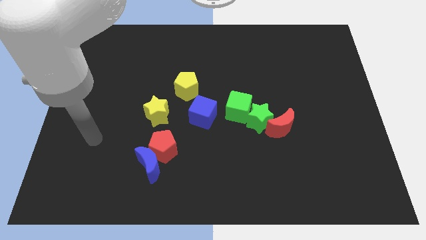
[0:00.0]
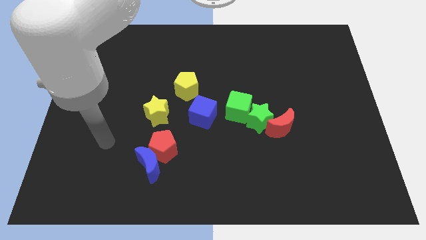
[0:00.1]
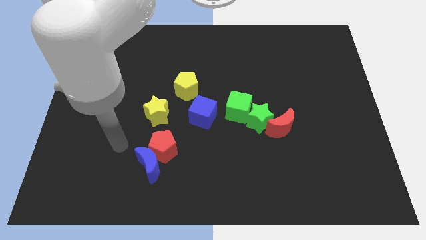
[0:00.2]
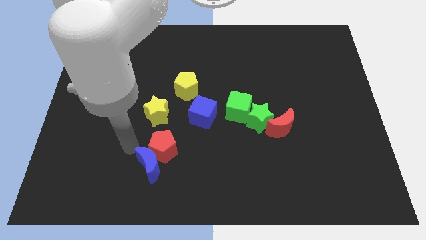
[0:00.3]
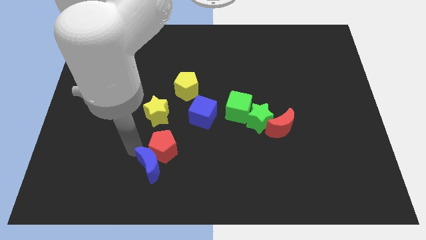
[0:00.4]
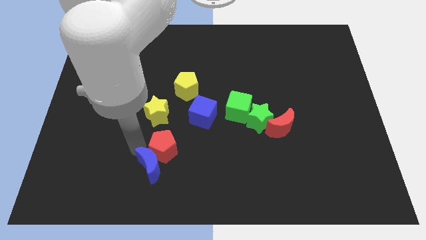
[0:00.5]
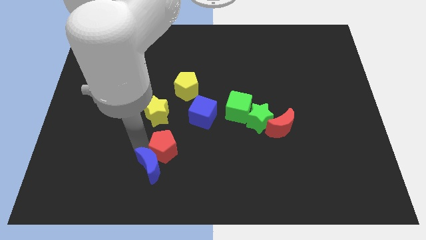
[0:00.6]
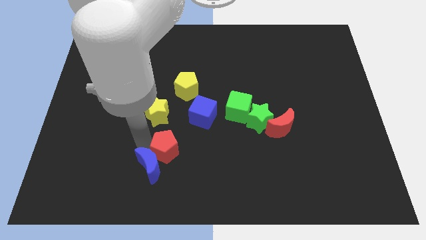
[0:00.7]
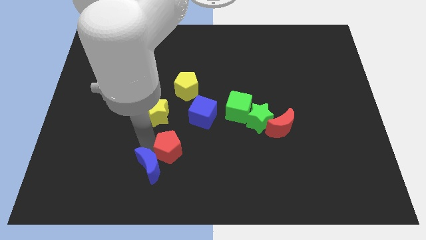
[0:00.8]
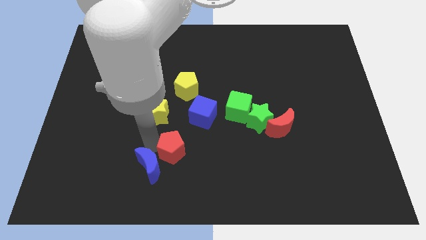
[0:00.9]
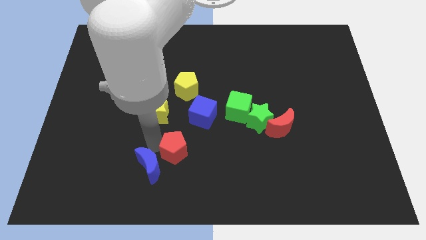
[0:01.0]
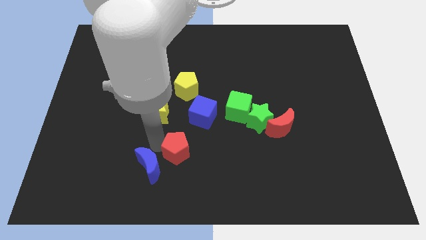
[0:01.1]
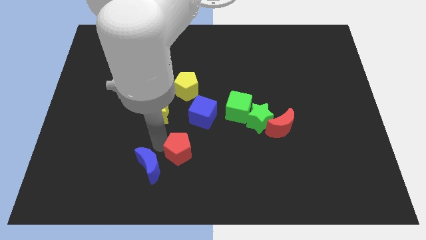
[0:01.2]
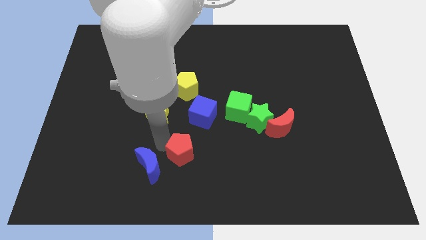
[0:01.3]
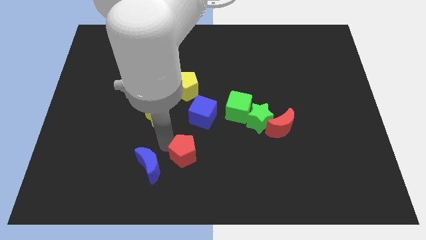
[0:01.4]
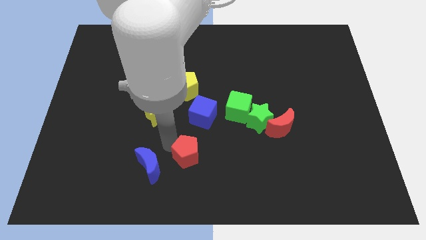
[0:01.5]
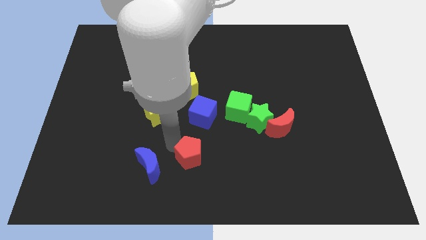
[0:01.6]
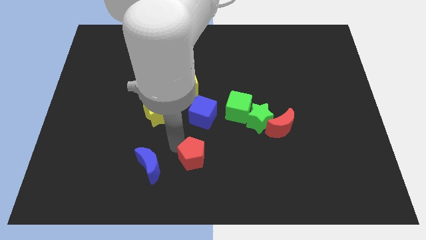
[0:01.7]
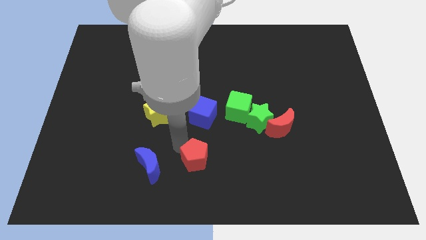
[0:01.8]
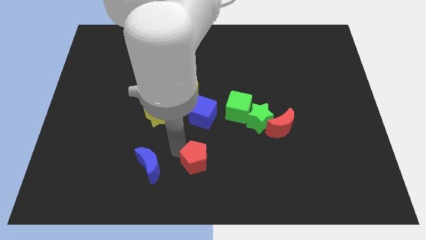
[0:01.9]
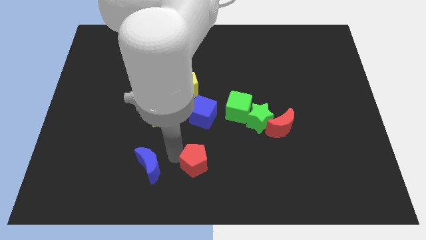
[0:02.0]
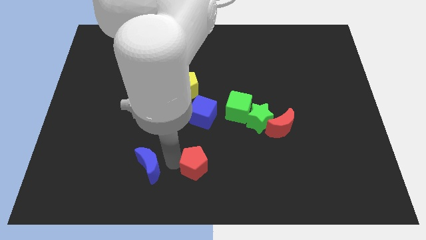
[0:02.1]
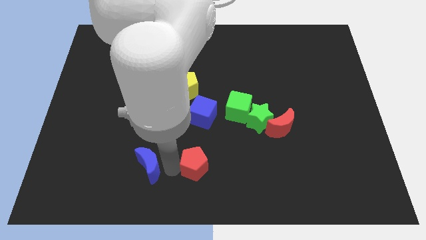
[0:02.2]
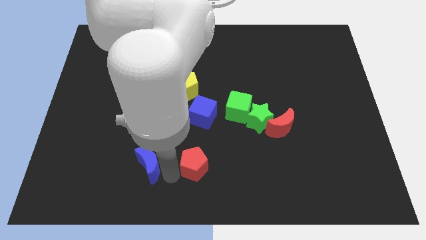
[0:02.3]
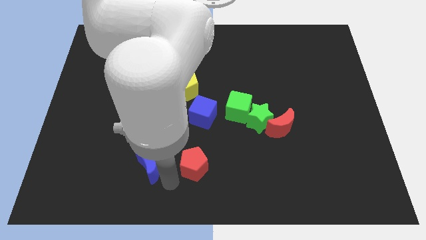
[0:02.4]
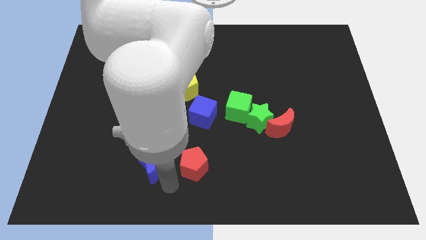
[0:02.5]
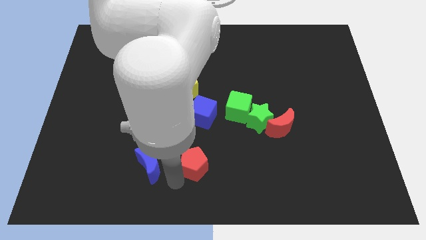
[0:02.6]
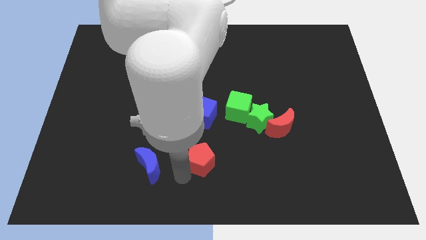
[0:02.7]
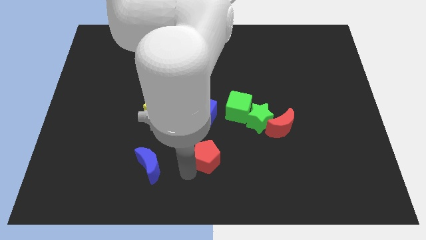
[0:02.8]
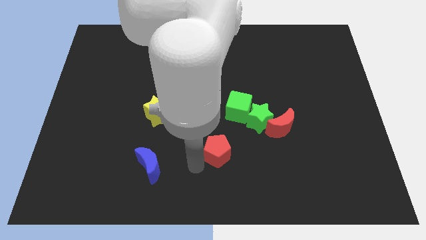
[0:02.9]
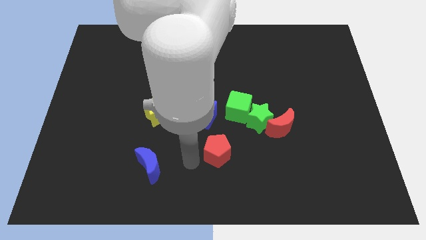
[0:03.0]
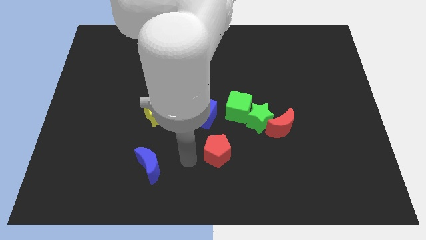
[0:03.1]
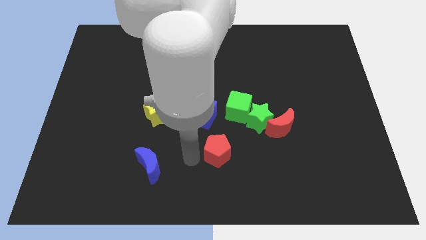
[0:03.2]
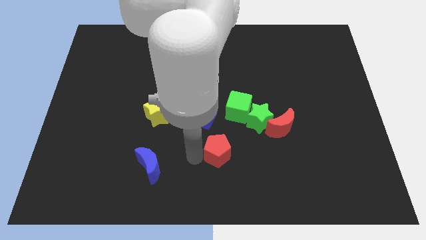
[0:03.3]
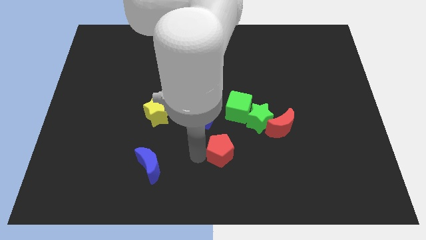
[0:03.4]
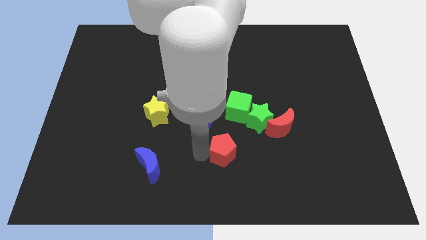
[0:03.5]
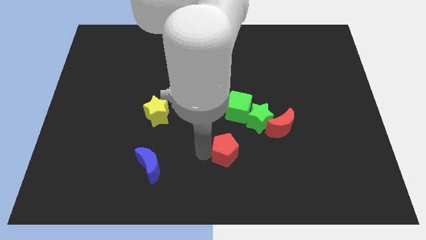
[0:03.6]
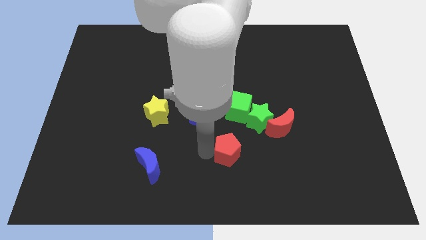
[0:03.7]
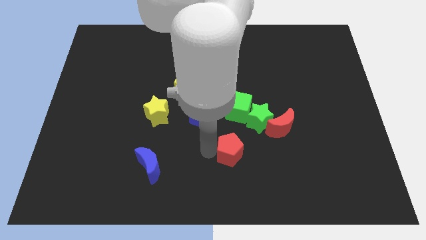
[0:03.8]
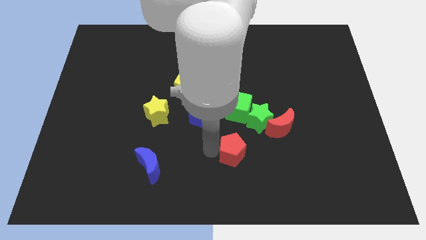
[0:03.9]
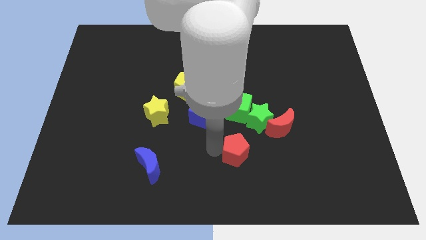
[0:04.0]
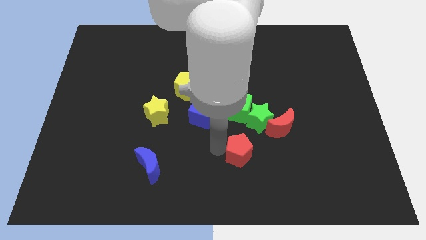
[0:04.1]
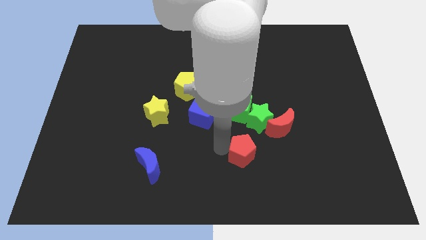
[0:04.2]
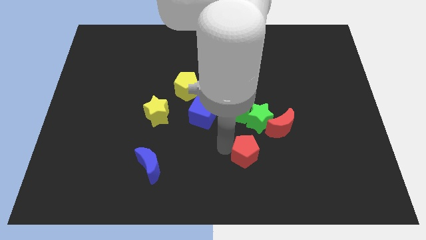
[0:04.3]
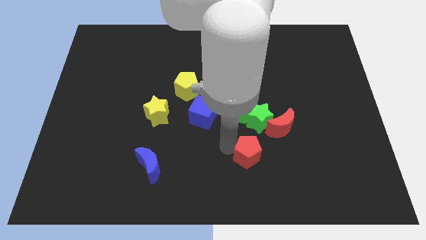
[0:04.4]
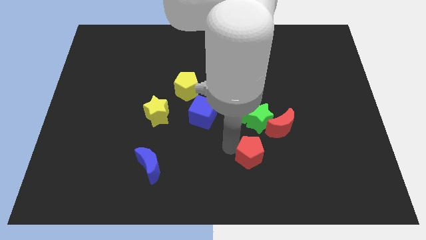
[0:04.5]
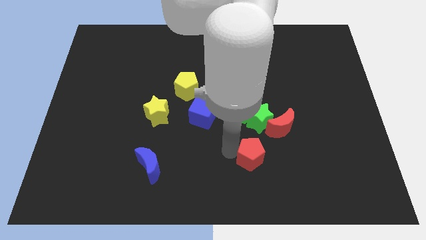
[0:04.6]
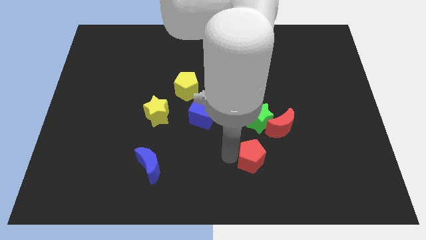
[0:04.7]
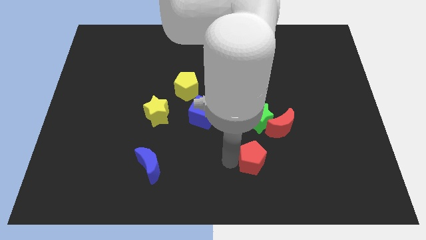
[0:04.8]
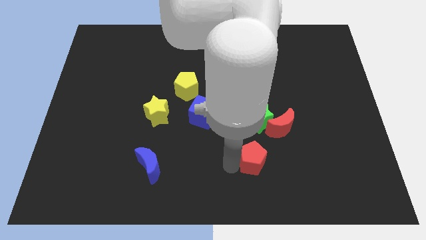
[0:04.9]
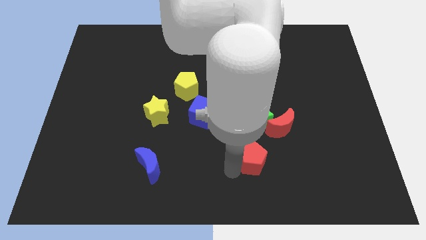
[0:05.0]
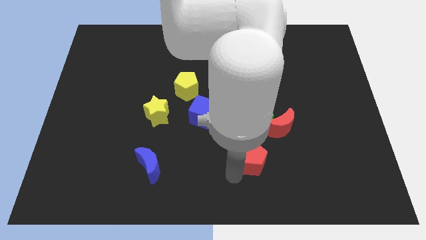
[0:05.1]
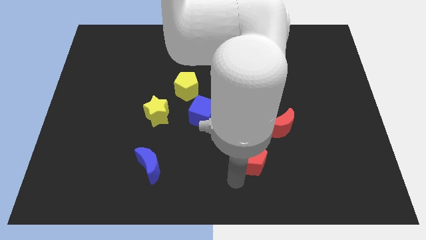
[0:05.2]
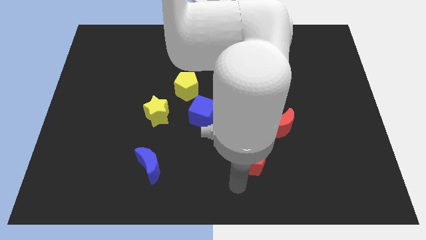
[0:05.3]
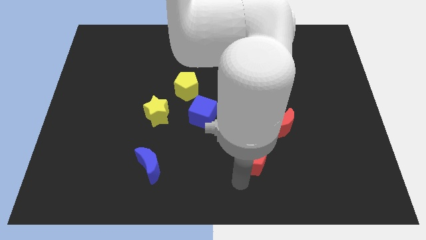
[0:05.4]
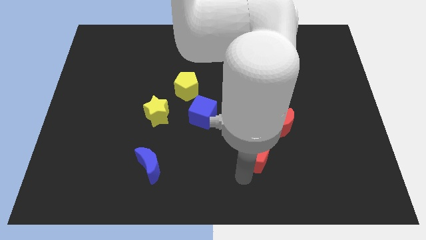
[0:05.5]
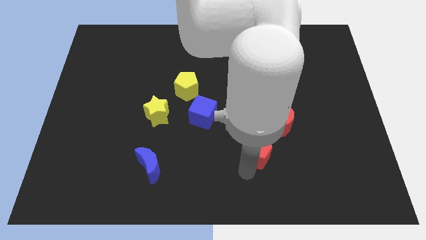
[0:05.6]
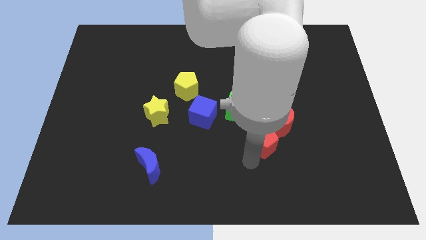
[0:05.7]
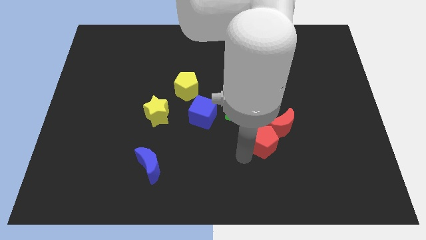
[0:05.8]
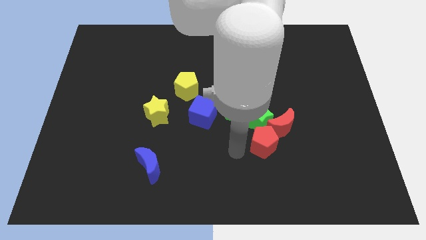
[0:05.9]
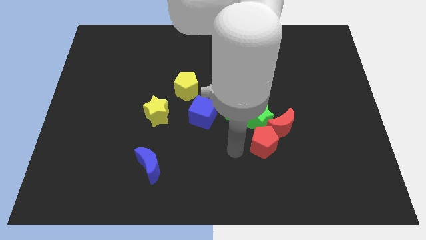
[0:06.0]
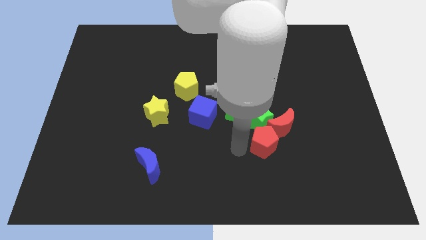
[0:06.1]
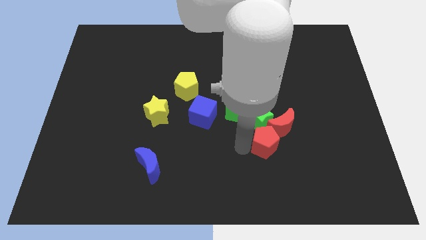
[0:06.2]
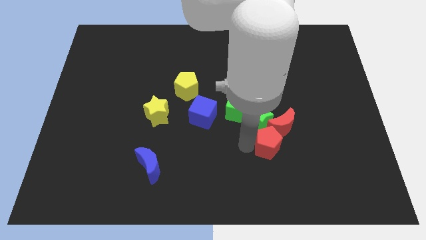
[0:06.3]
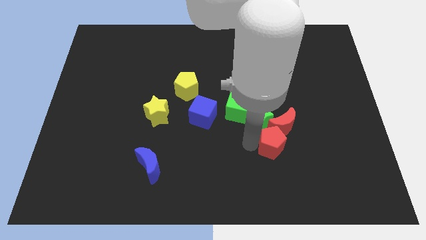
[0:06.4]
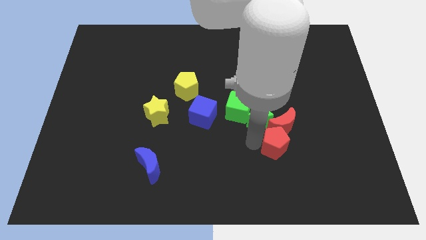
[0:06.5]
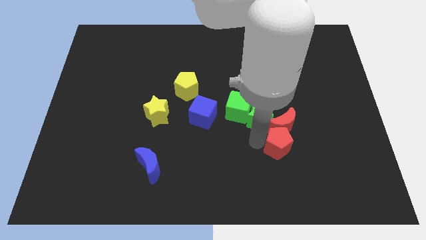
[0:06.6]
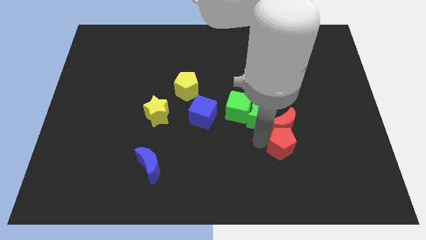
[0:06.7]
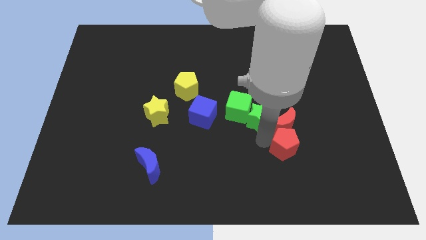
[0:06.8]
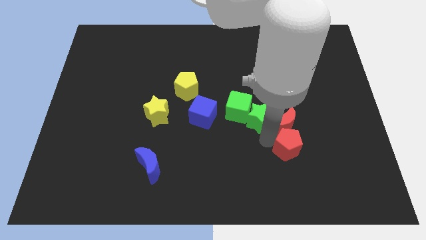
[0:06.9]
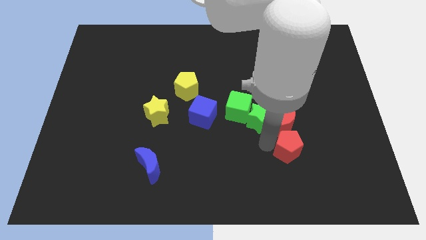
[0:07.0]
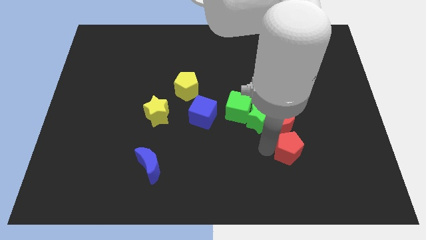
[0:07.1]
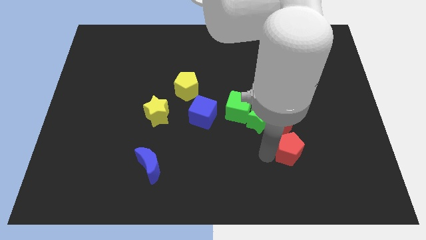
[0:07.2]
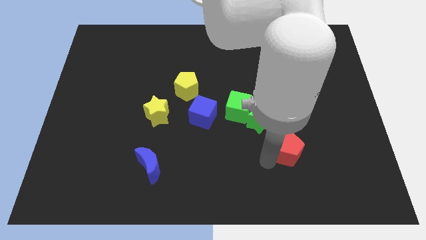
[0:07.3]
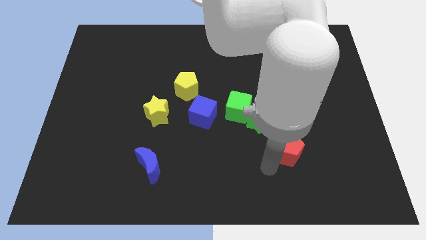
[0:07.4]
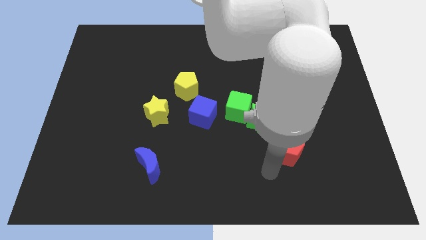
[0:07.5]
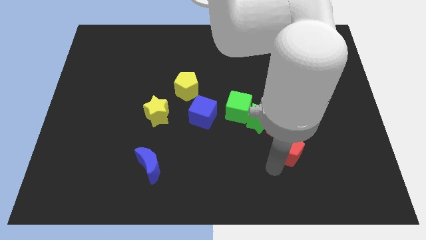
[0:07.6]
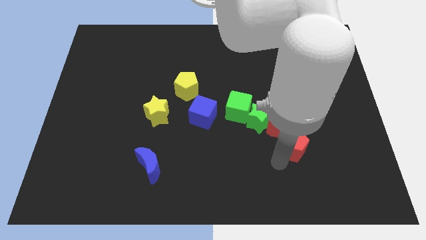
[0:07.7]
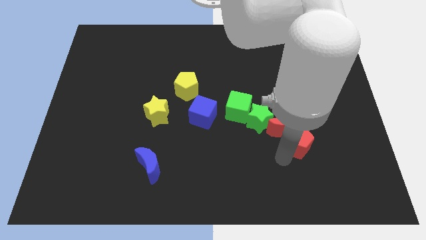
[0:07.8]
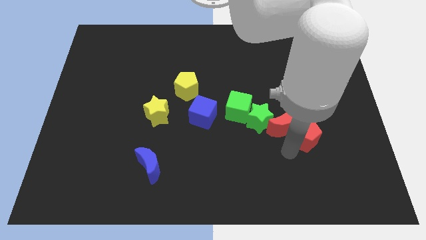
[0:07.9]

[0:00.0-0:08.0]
push the red pentagon right of the red moon
